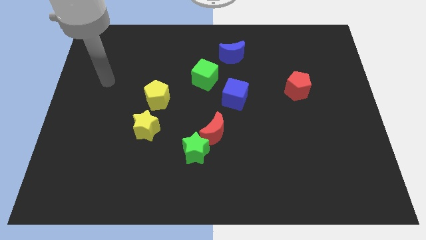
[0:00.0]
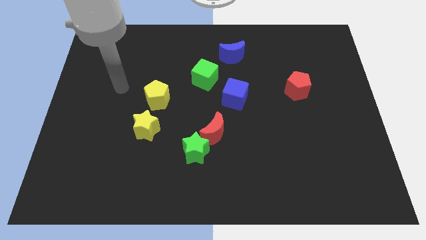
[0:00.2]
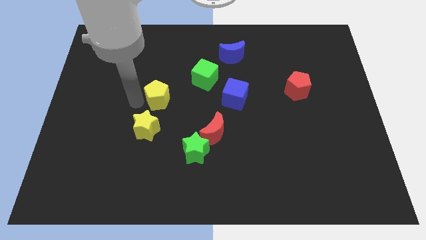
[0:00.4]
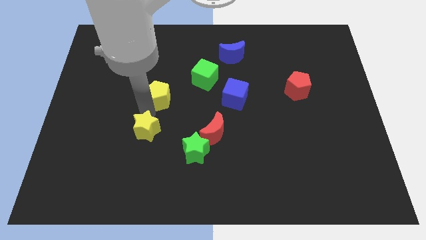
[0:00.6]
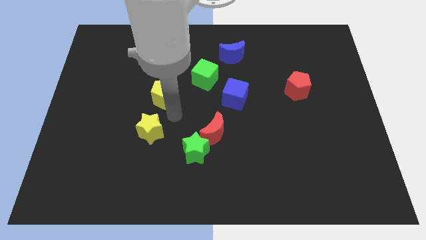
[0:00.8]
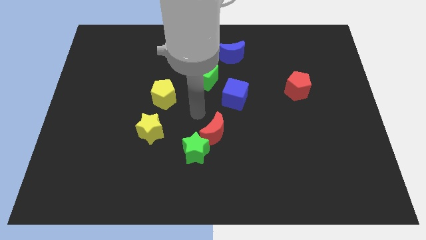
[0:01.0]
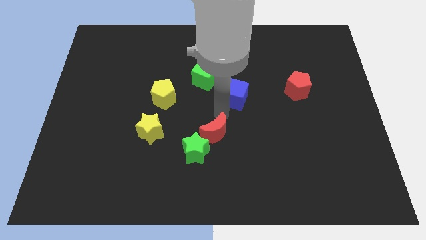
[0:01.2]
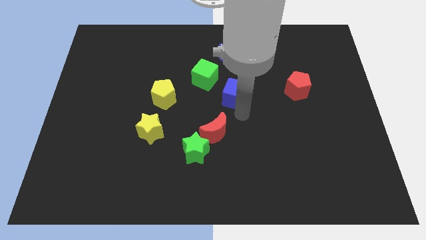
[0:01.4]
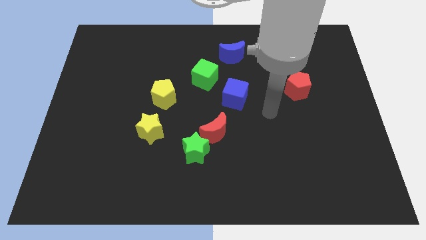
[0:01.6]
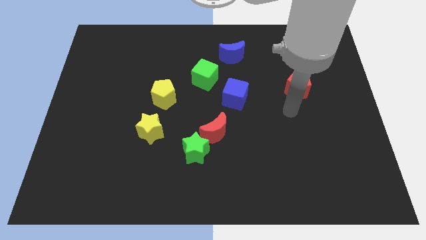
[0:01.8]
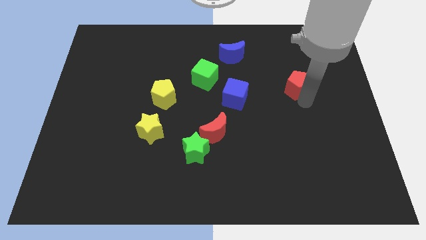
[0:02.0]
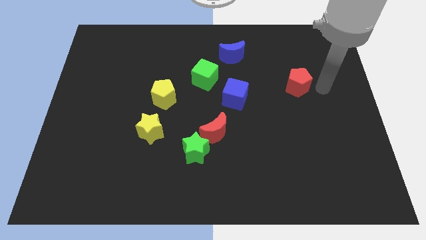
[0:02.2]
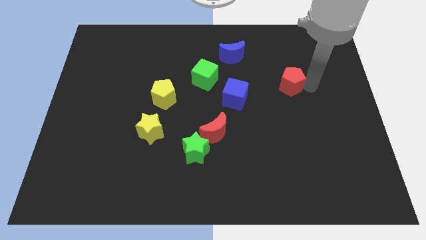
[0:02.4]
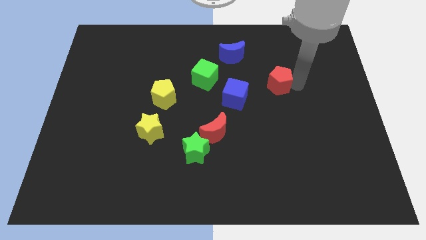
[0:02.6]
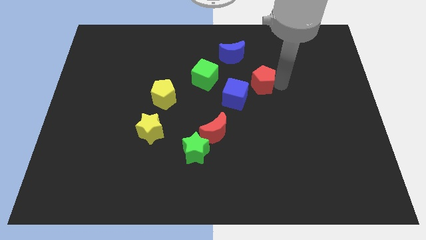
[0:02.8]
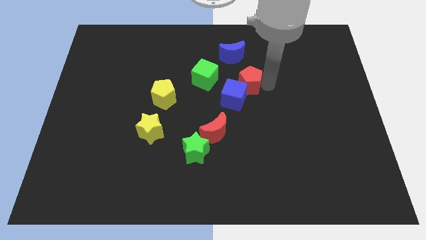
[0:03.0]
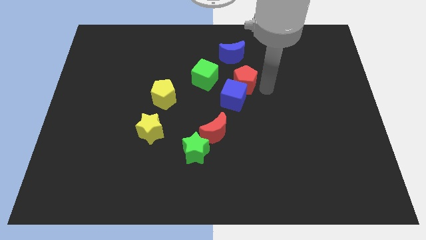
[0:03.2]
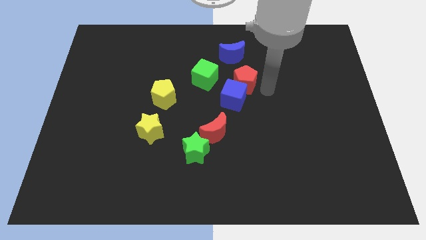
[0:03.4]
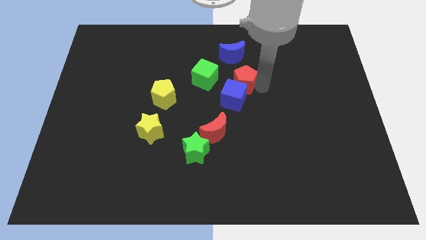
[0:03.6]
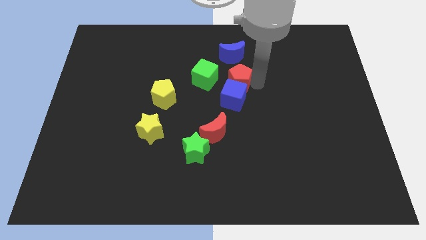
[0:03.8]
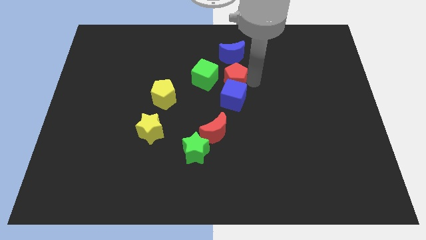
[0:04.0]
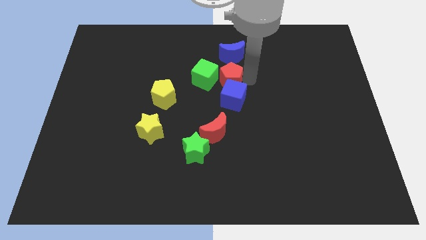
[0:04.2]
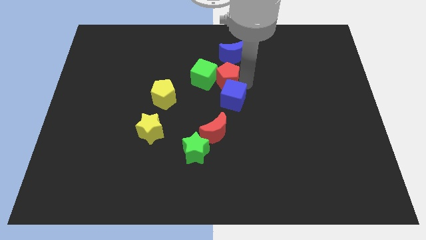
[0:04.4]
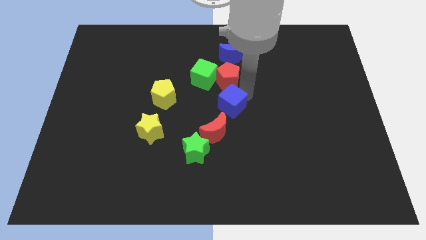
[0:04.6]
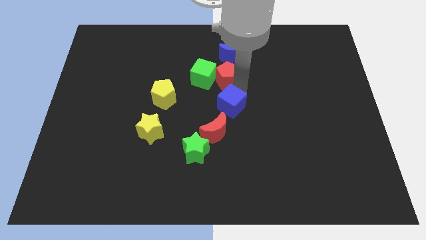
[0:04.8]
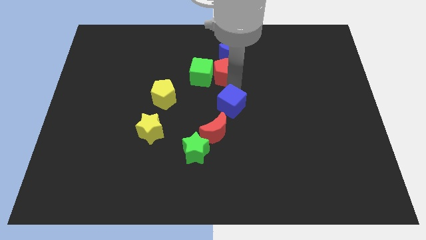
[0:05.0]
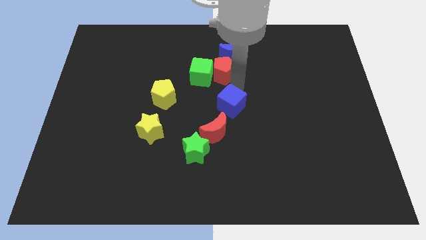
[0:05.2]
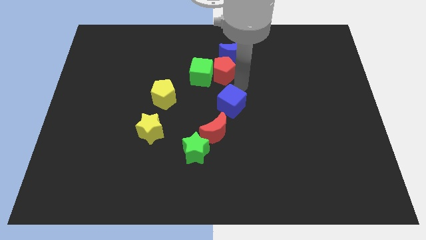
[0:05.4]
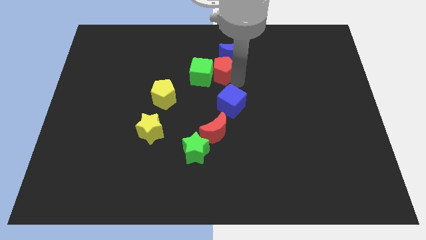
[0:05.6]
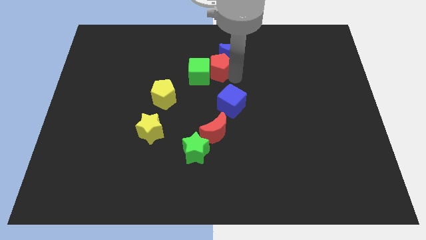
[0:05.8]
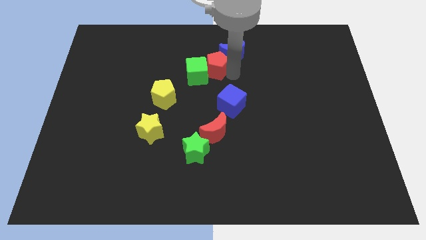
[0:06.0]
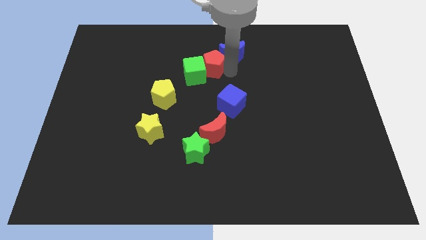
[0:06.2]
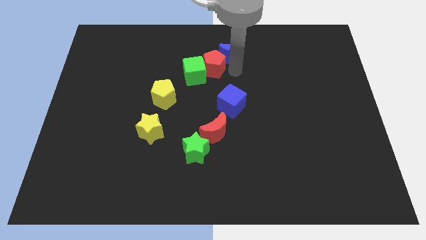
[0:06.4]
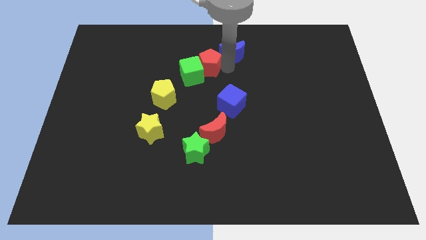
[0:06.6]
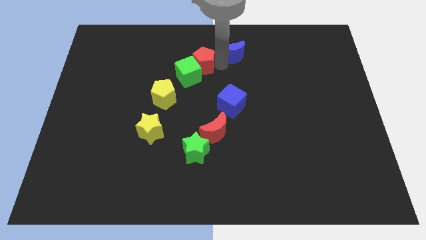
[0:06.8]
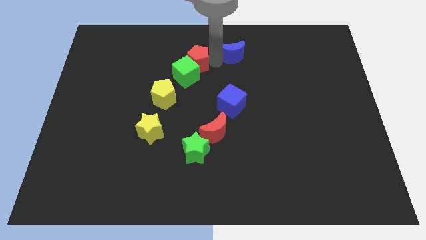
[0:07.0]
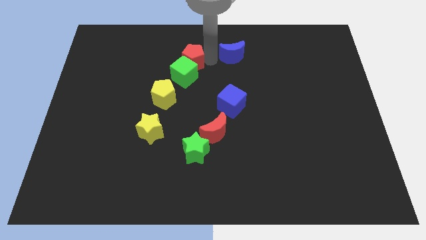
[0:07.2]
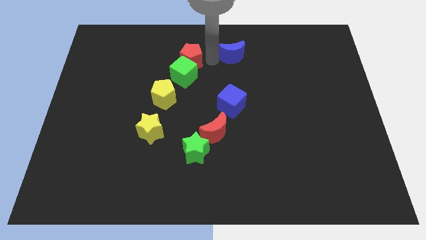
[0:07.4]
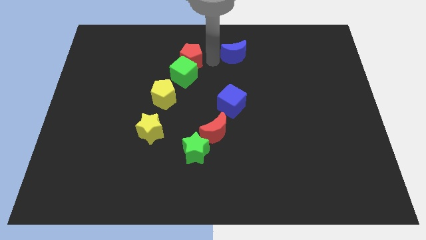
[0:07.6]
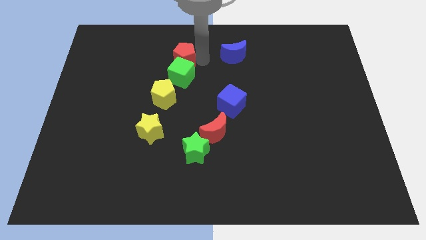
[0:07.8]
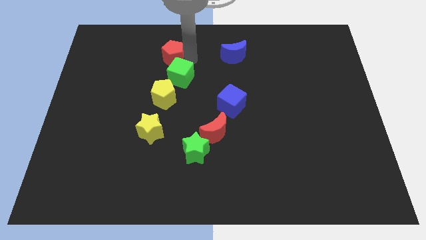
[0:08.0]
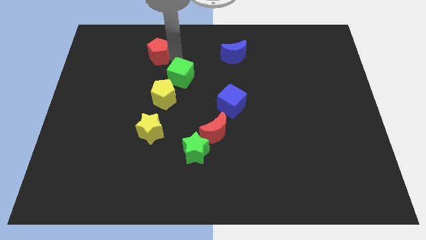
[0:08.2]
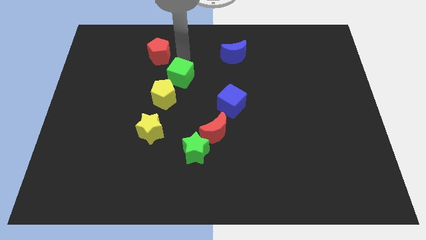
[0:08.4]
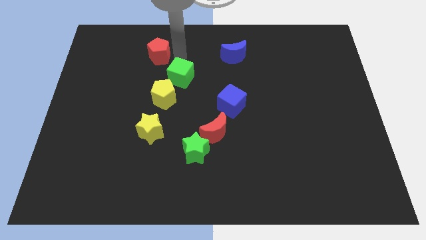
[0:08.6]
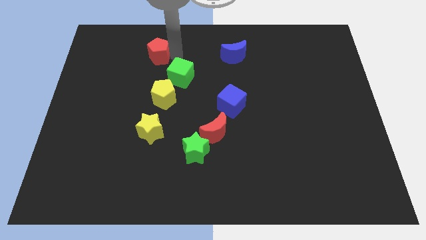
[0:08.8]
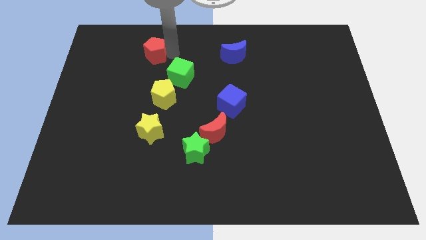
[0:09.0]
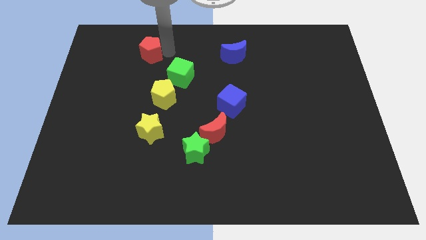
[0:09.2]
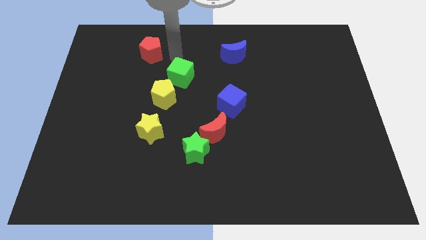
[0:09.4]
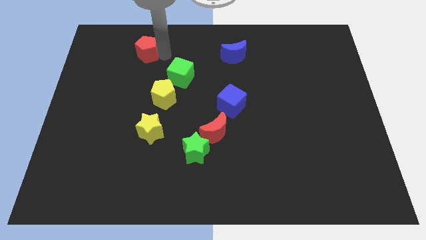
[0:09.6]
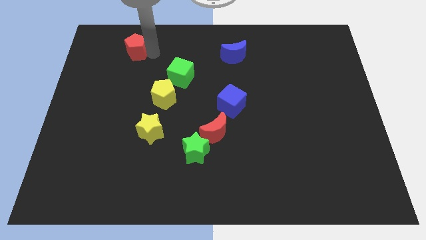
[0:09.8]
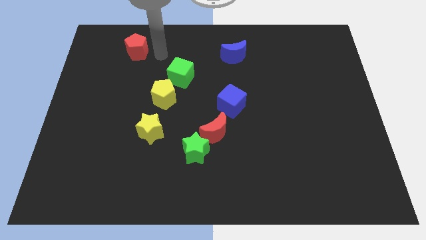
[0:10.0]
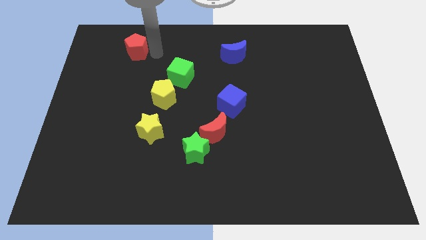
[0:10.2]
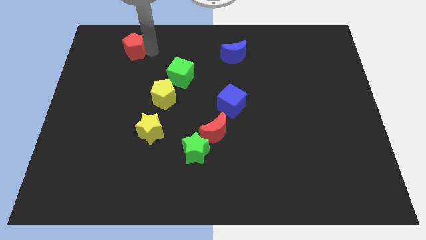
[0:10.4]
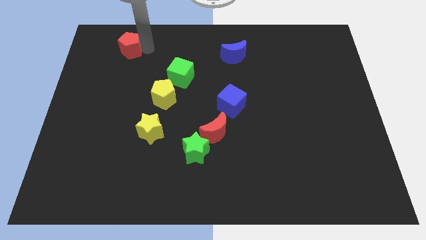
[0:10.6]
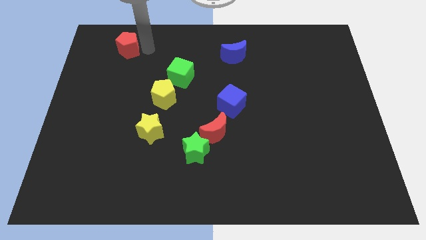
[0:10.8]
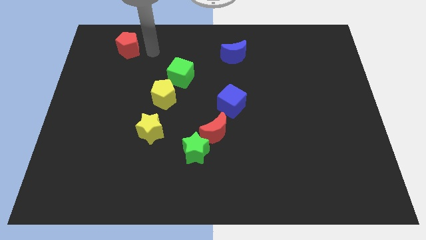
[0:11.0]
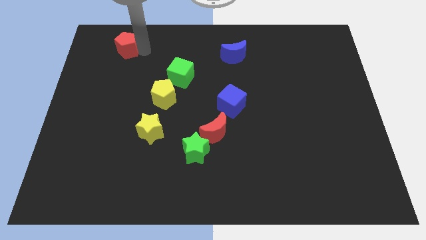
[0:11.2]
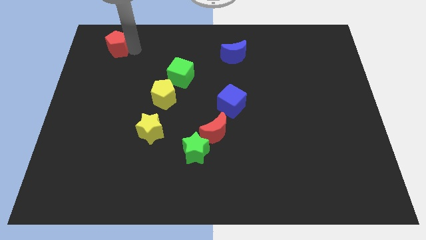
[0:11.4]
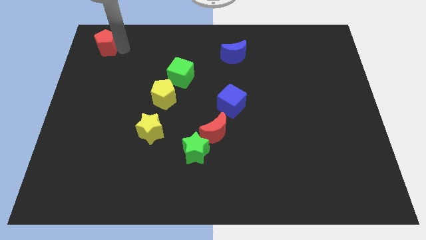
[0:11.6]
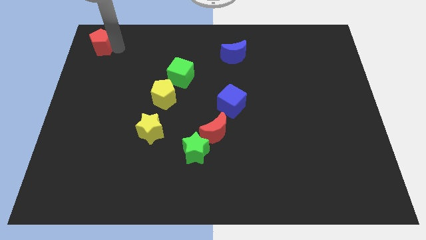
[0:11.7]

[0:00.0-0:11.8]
push the red pentagon to the top left of the board
